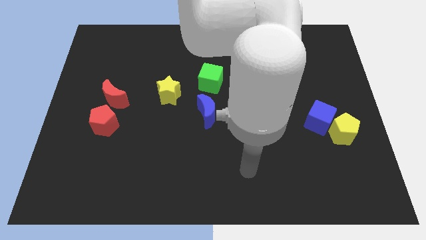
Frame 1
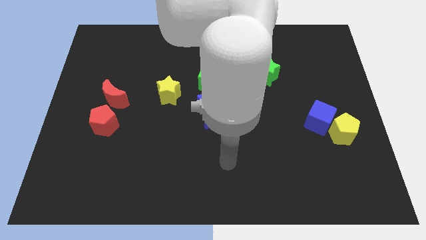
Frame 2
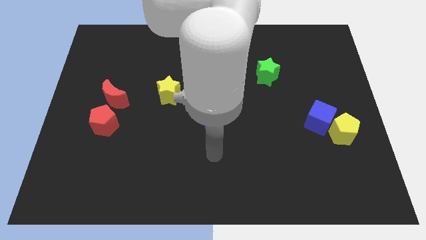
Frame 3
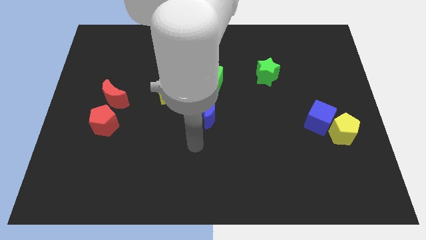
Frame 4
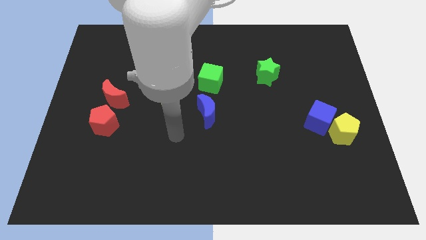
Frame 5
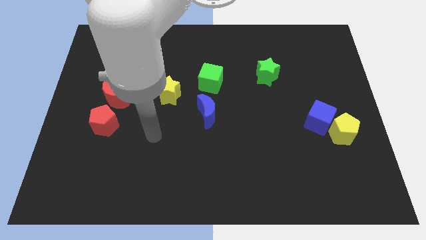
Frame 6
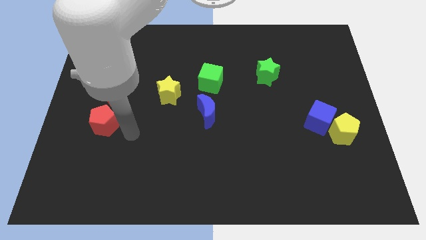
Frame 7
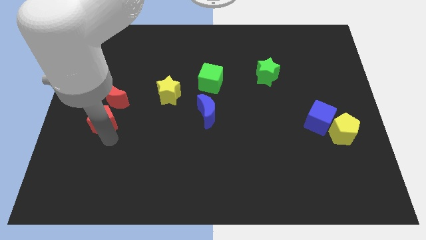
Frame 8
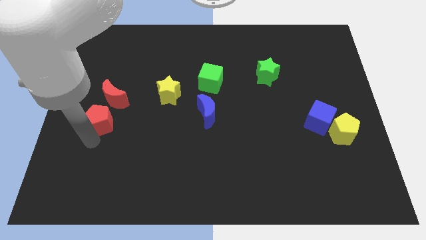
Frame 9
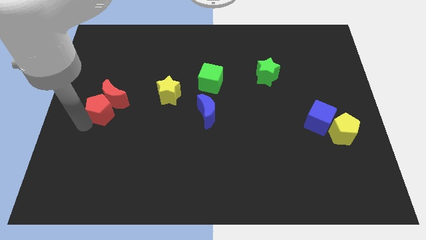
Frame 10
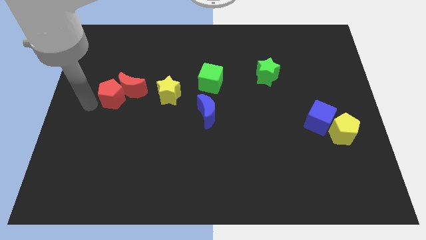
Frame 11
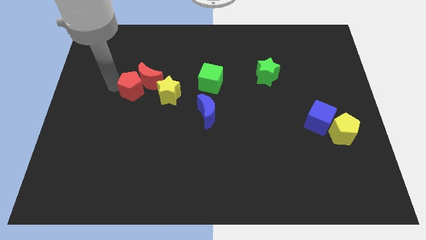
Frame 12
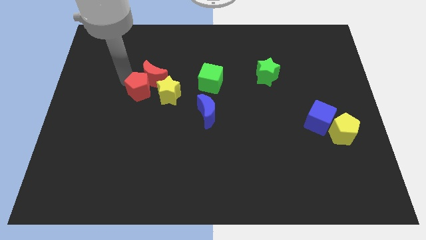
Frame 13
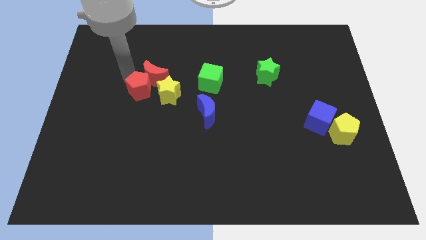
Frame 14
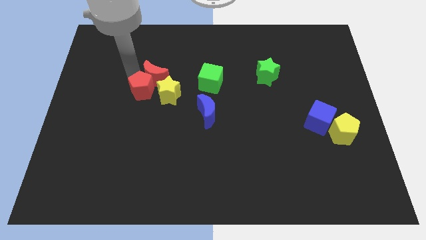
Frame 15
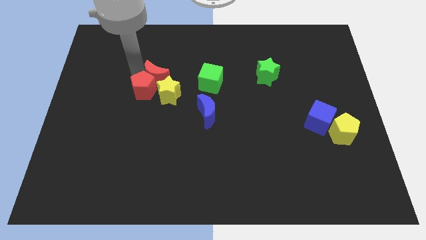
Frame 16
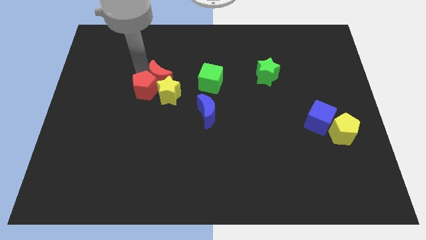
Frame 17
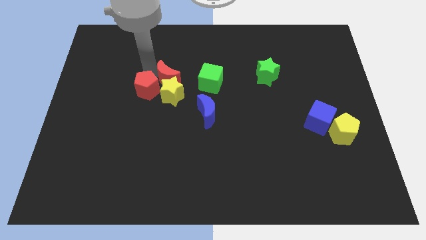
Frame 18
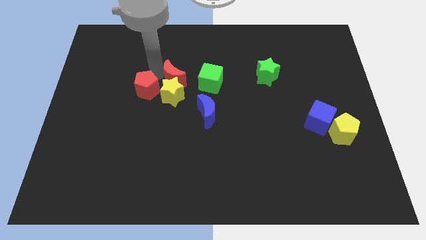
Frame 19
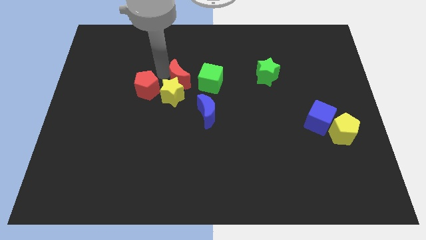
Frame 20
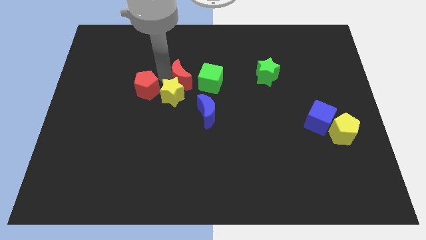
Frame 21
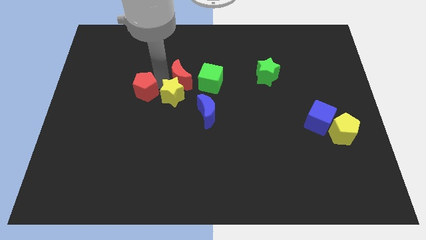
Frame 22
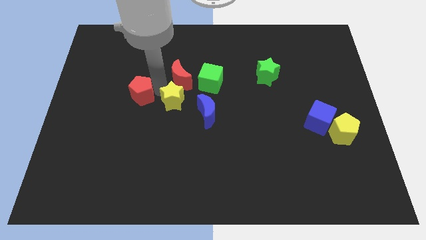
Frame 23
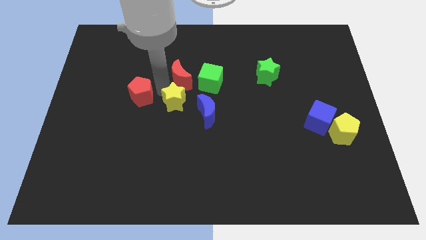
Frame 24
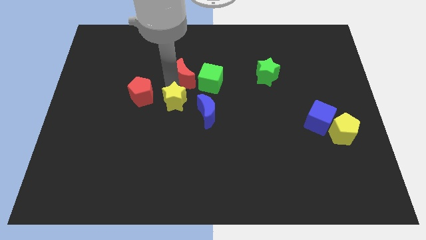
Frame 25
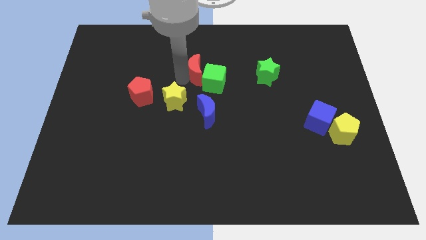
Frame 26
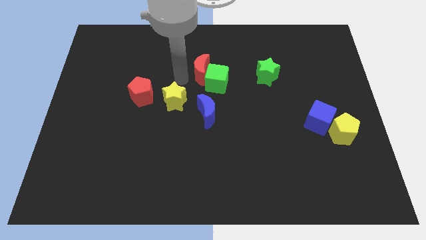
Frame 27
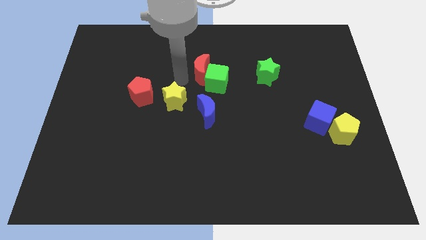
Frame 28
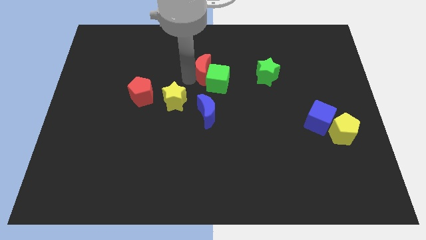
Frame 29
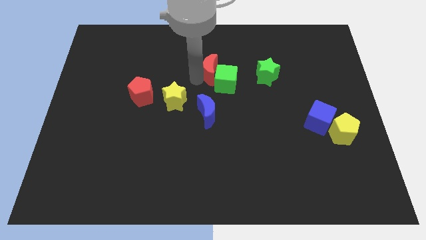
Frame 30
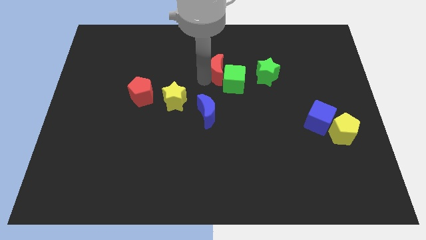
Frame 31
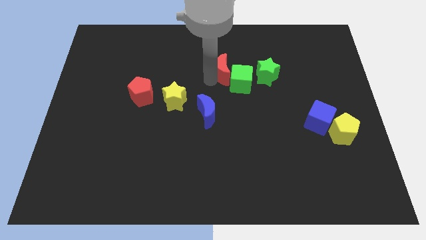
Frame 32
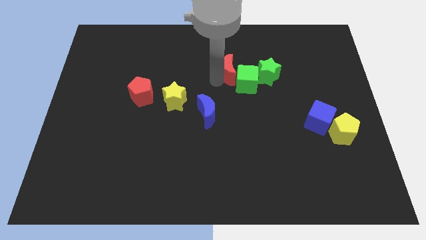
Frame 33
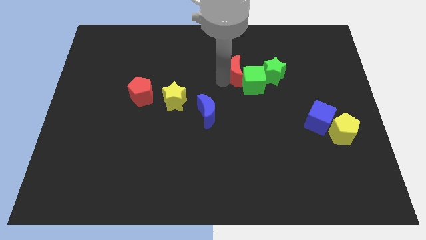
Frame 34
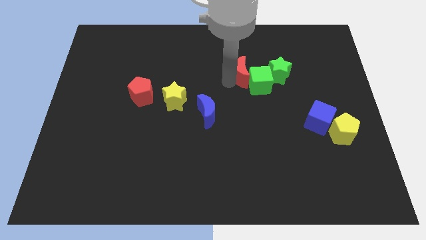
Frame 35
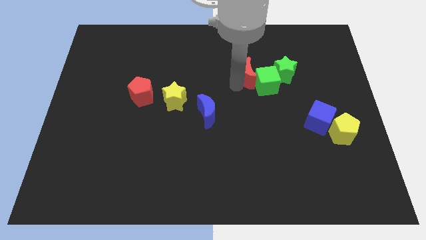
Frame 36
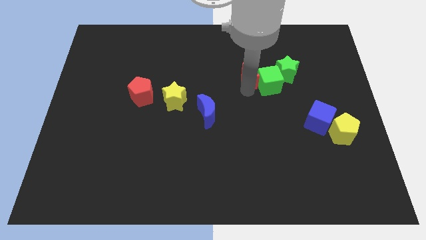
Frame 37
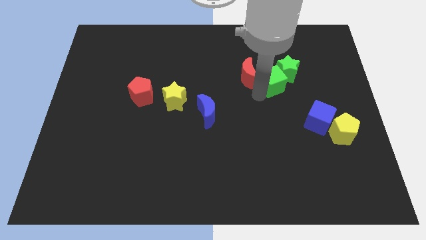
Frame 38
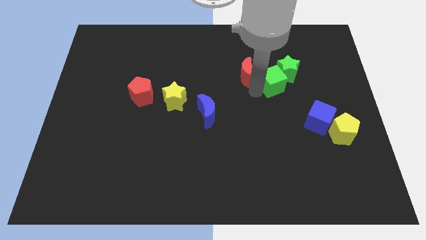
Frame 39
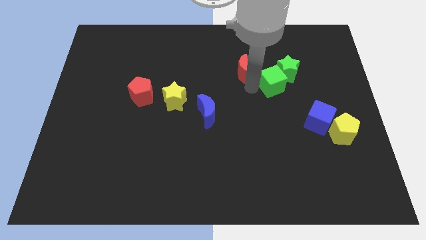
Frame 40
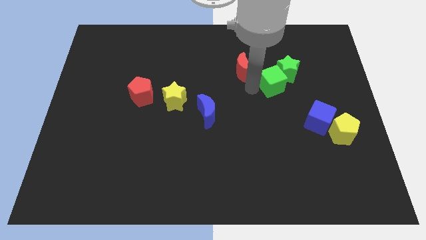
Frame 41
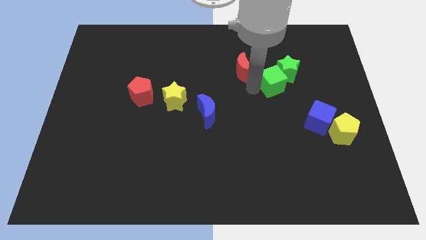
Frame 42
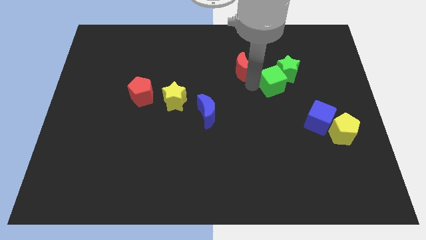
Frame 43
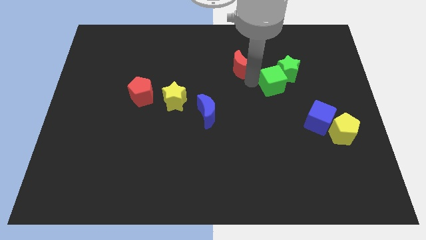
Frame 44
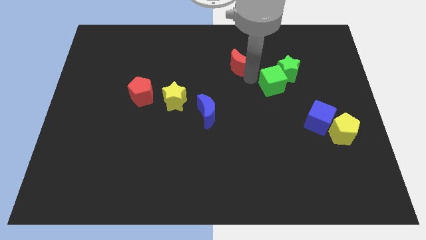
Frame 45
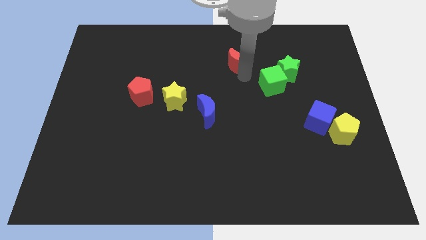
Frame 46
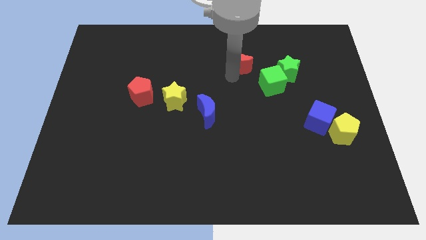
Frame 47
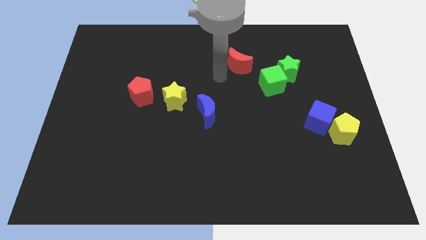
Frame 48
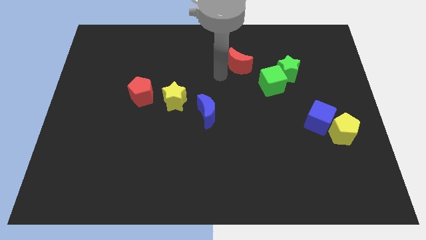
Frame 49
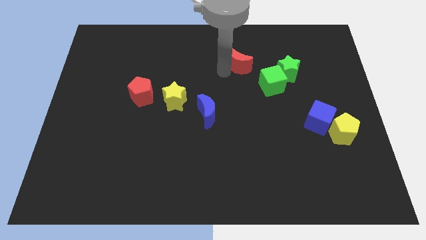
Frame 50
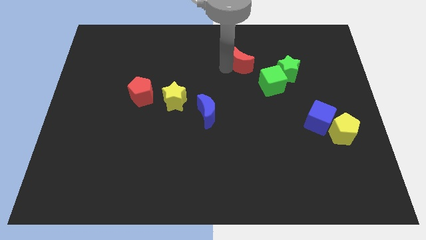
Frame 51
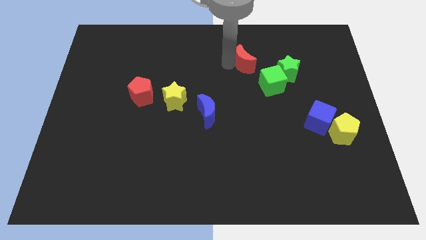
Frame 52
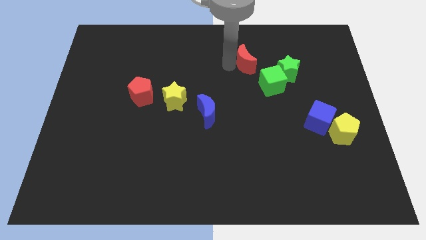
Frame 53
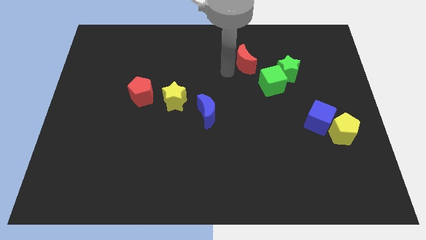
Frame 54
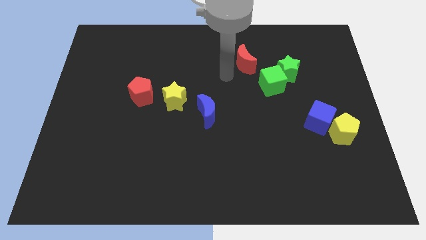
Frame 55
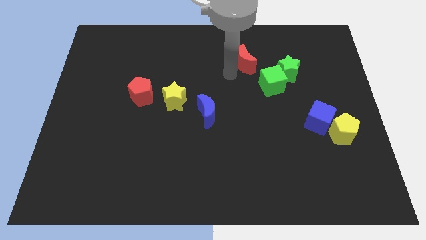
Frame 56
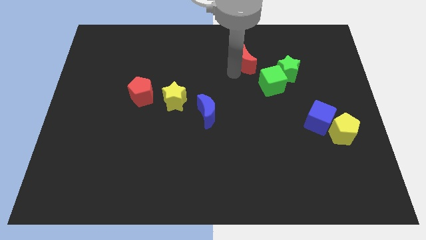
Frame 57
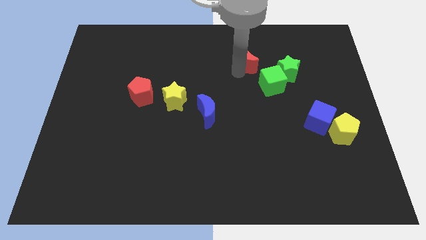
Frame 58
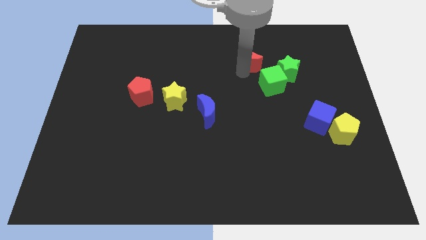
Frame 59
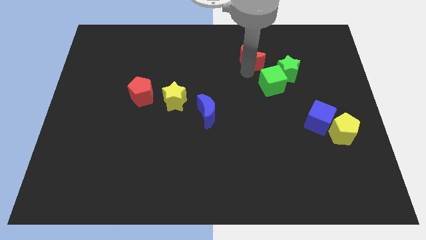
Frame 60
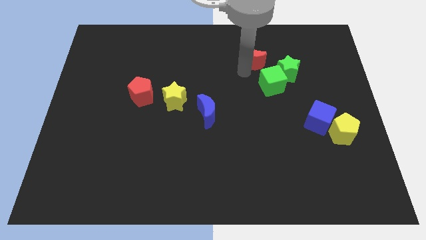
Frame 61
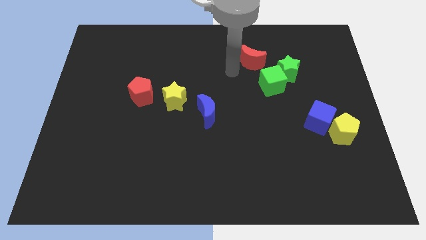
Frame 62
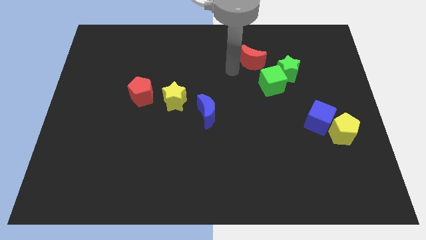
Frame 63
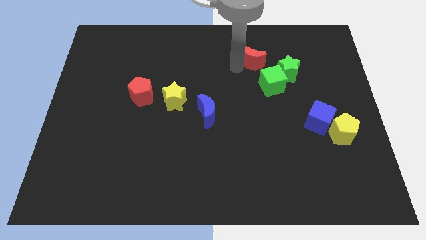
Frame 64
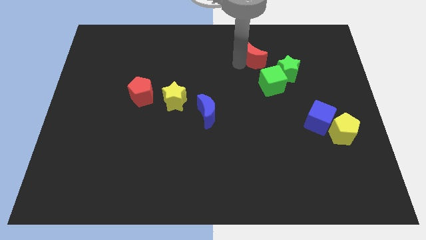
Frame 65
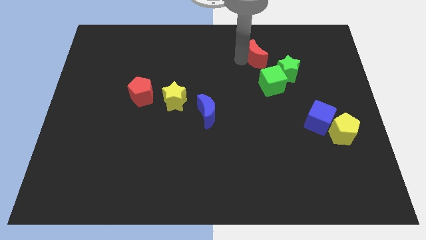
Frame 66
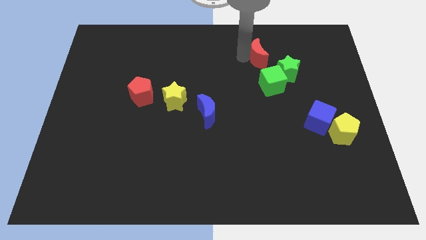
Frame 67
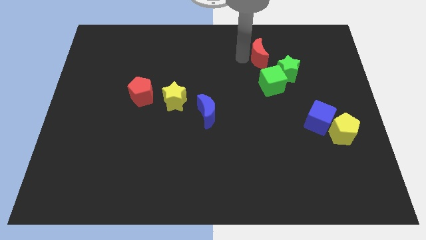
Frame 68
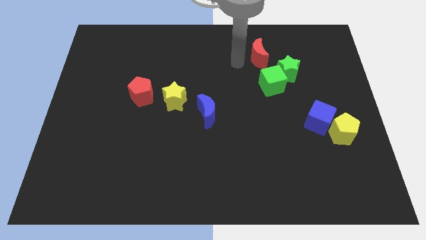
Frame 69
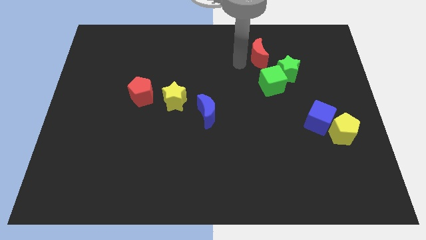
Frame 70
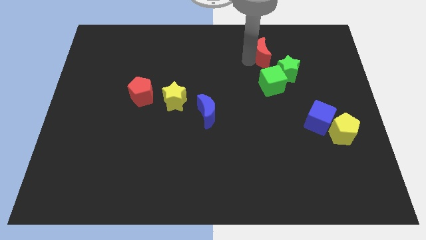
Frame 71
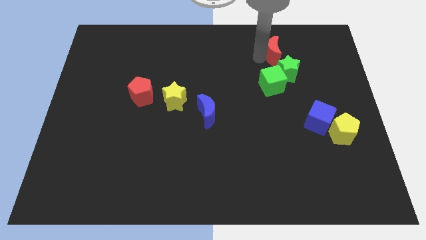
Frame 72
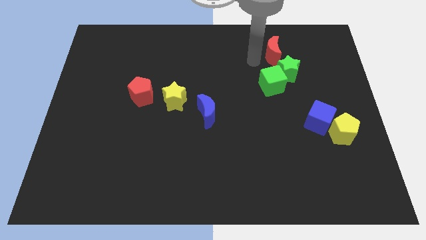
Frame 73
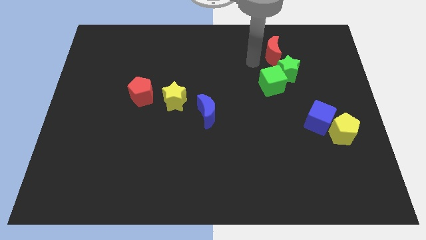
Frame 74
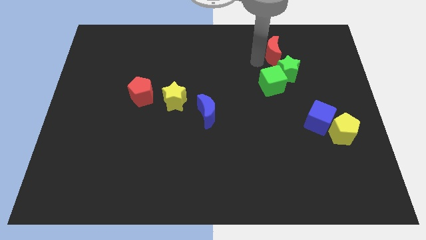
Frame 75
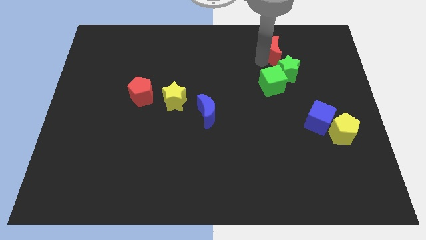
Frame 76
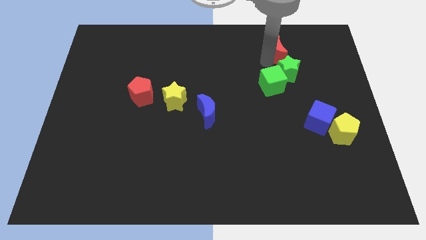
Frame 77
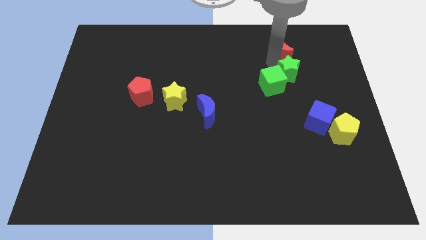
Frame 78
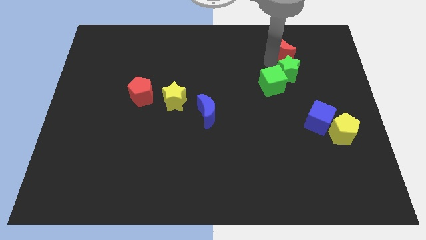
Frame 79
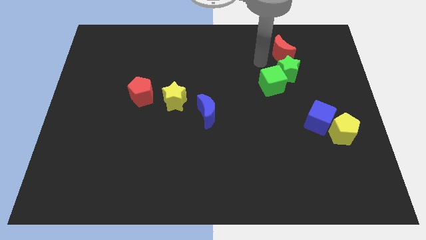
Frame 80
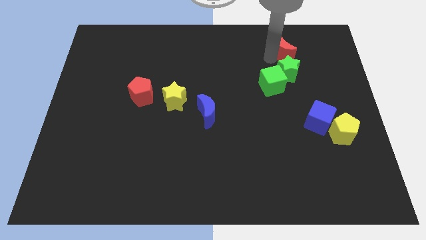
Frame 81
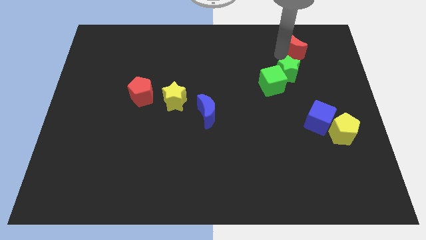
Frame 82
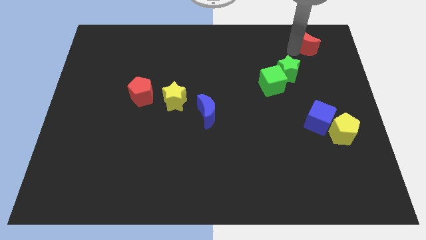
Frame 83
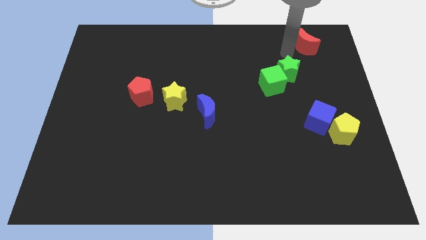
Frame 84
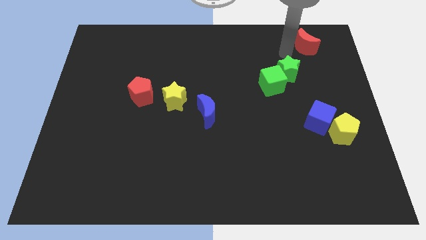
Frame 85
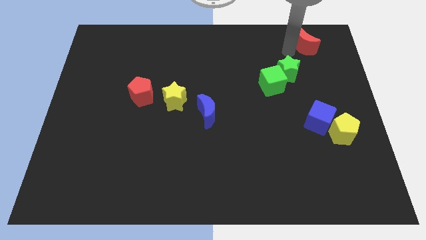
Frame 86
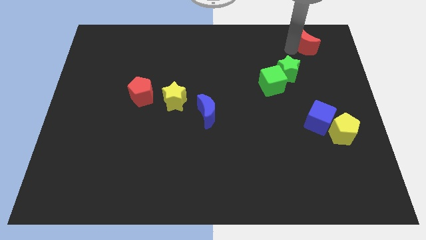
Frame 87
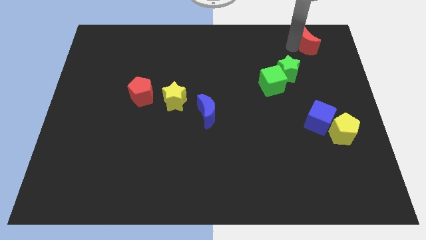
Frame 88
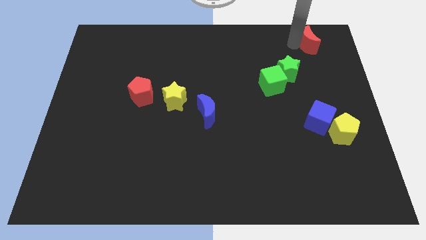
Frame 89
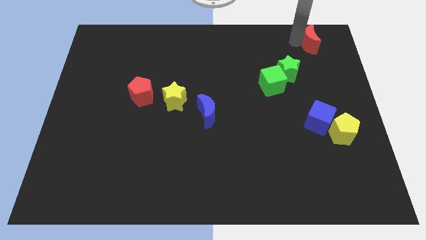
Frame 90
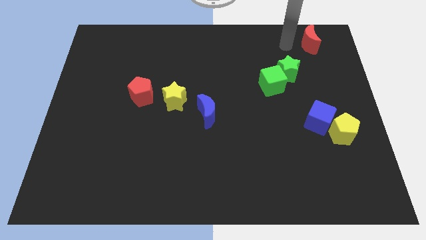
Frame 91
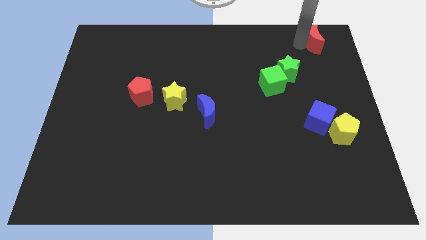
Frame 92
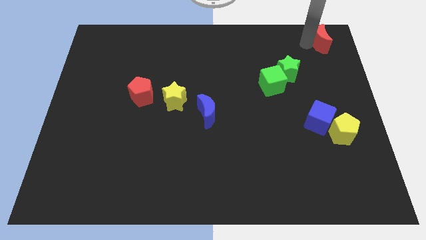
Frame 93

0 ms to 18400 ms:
move the red moon to the upper right corner
